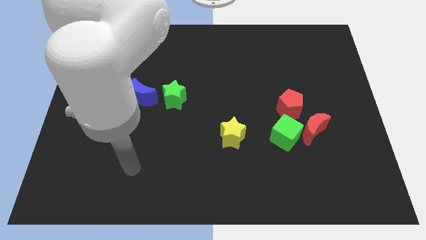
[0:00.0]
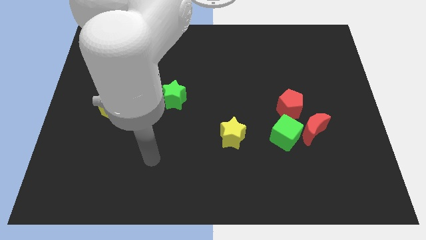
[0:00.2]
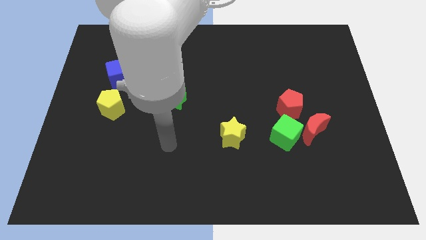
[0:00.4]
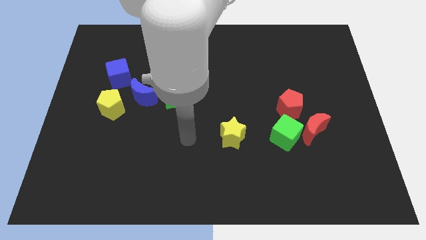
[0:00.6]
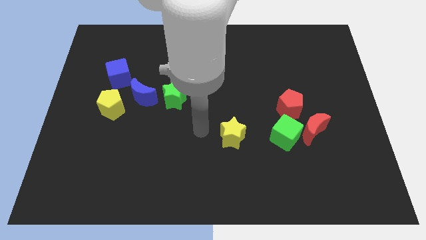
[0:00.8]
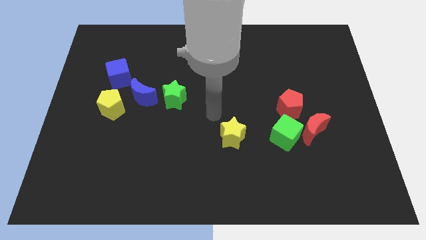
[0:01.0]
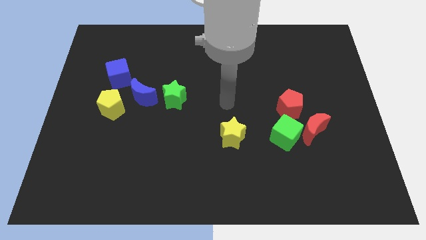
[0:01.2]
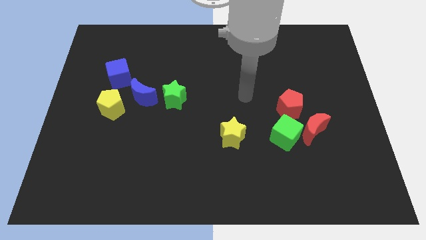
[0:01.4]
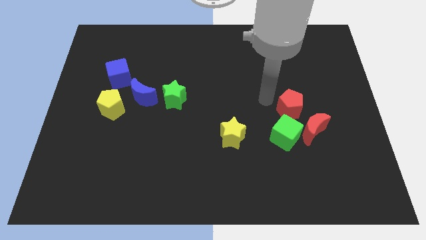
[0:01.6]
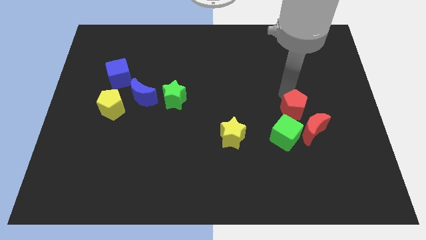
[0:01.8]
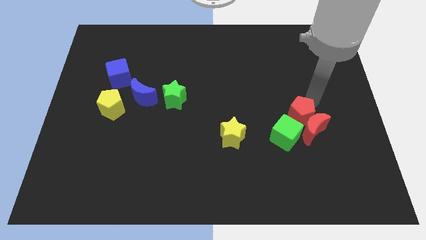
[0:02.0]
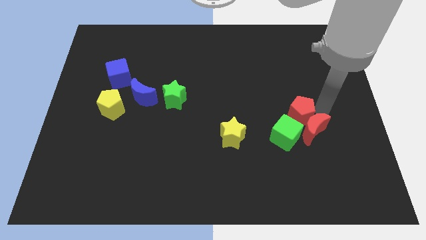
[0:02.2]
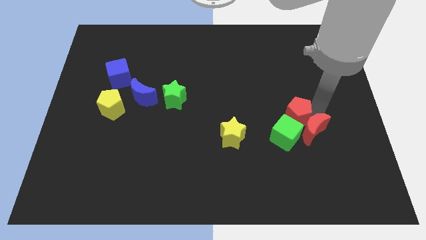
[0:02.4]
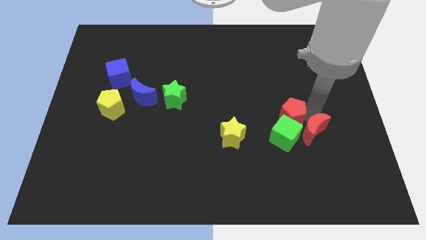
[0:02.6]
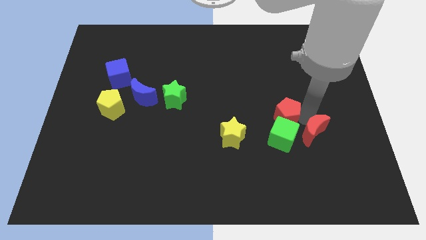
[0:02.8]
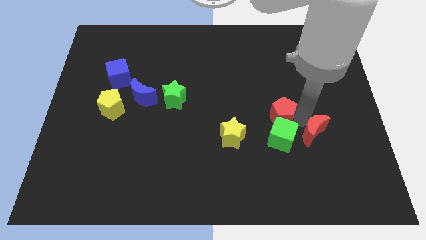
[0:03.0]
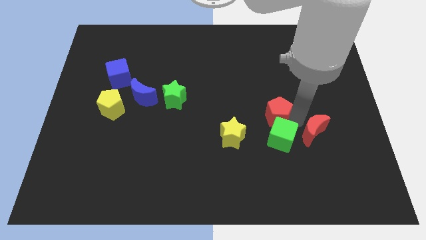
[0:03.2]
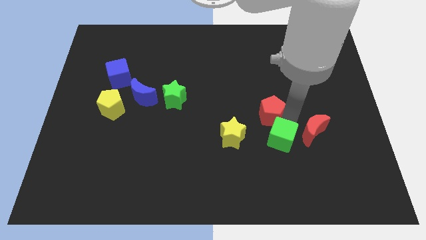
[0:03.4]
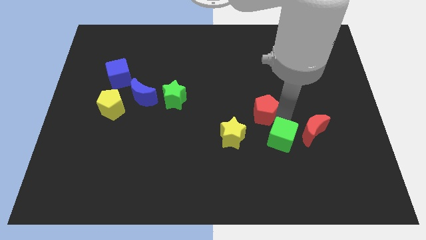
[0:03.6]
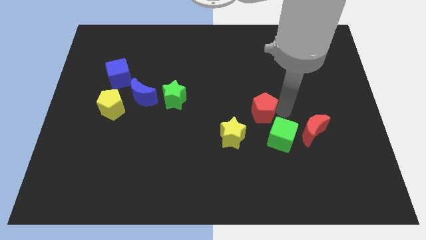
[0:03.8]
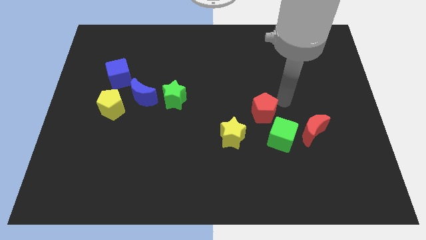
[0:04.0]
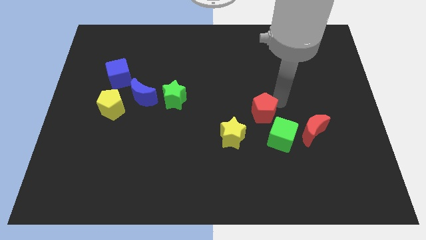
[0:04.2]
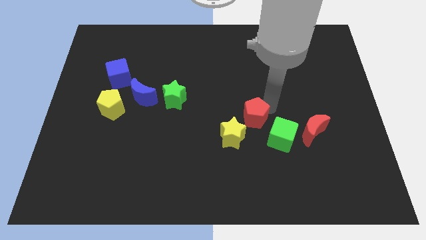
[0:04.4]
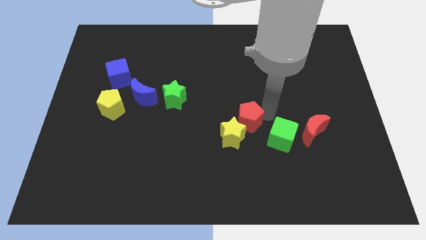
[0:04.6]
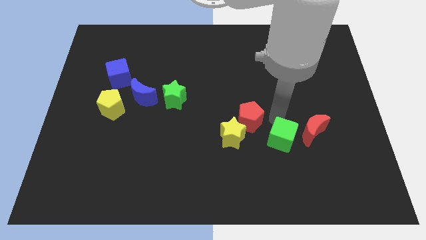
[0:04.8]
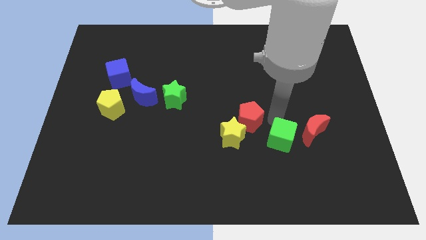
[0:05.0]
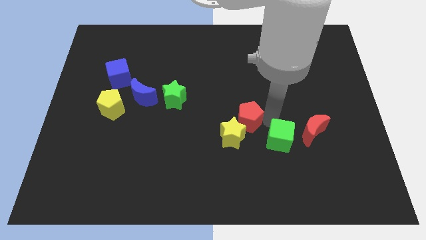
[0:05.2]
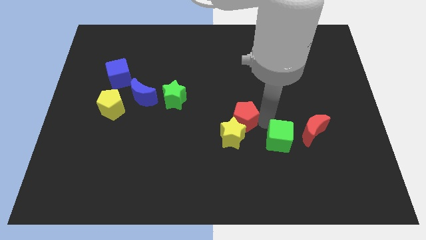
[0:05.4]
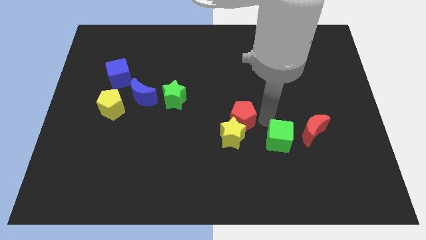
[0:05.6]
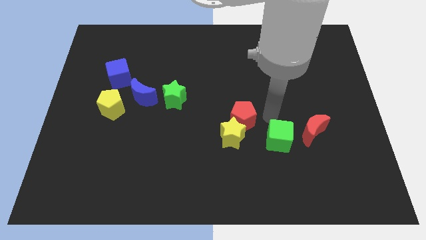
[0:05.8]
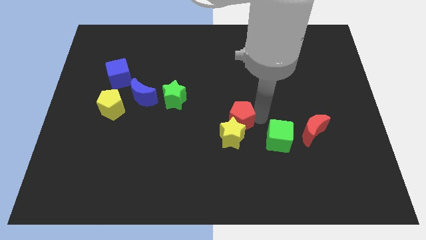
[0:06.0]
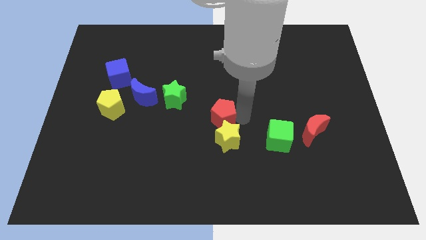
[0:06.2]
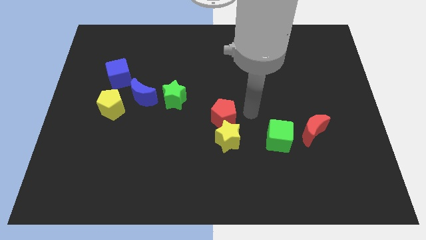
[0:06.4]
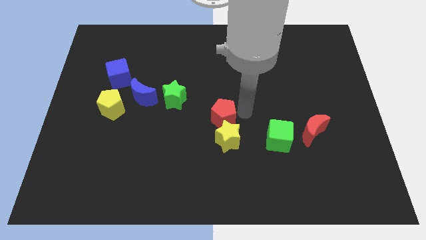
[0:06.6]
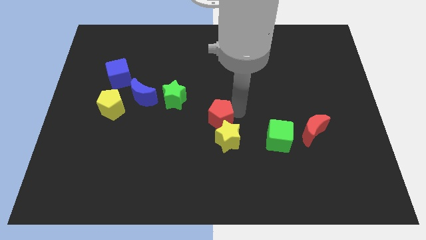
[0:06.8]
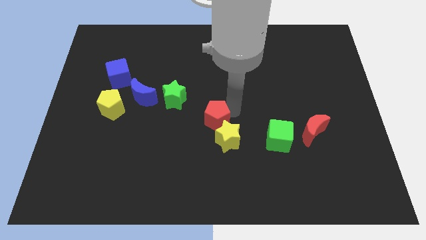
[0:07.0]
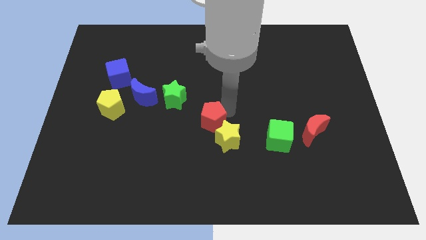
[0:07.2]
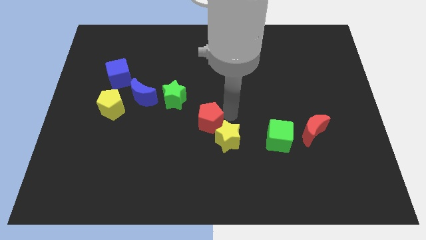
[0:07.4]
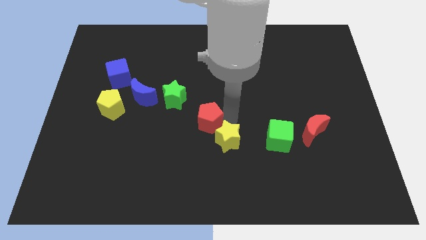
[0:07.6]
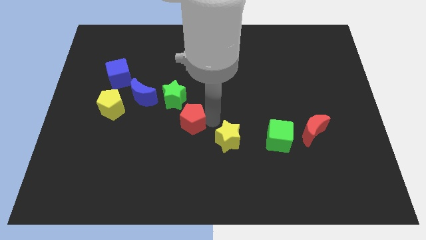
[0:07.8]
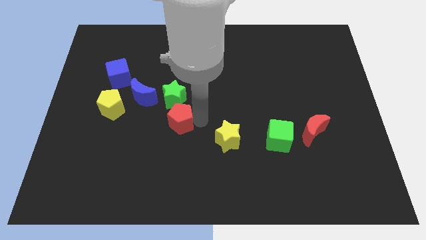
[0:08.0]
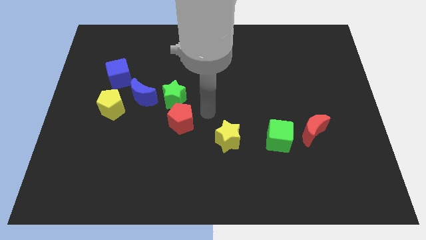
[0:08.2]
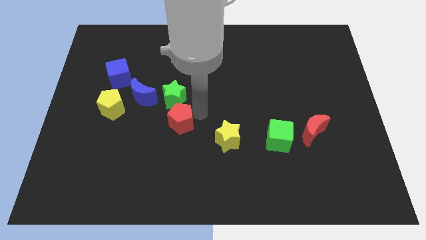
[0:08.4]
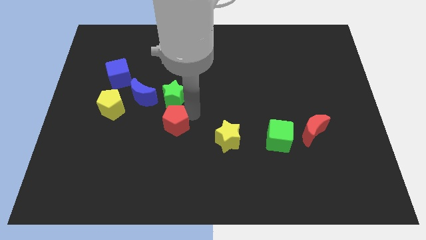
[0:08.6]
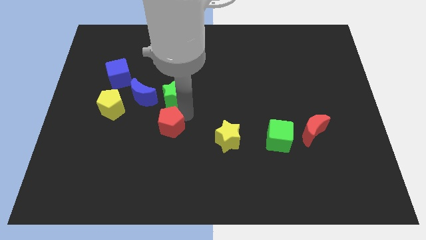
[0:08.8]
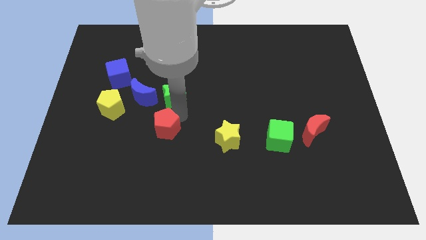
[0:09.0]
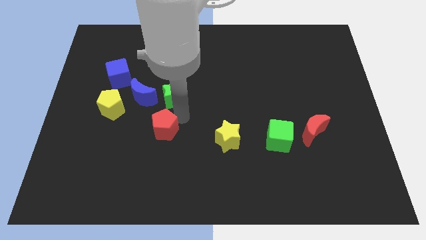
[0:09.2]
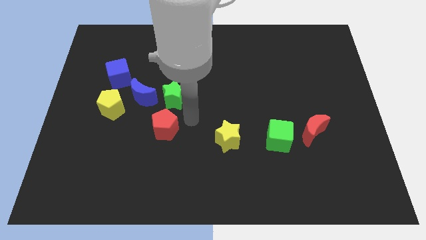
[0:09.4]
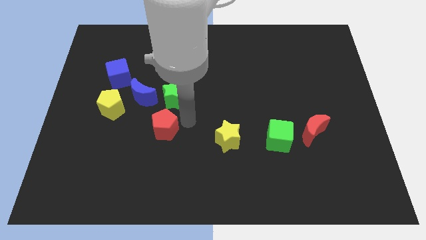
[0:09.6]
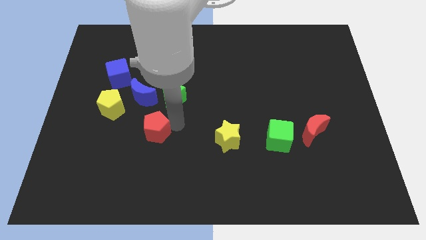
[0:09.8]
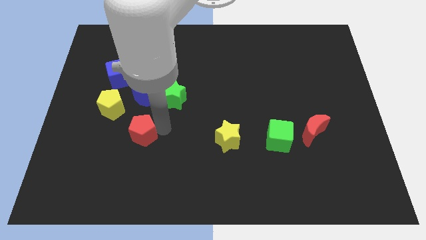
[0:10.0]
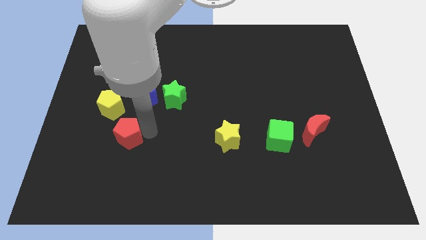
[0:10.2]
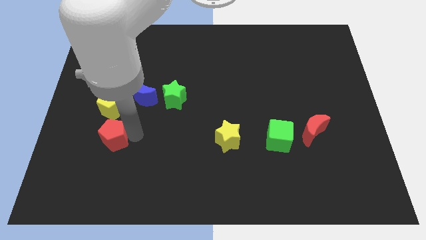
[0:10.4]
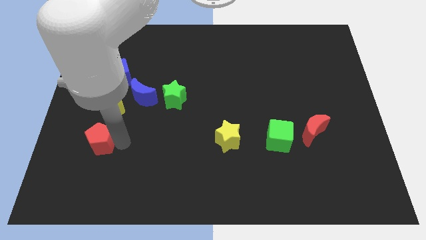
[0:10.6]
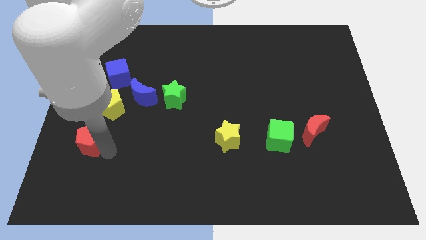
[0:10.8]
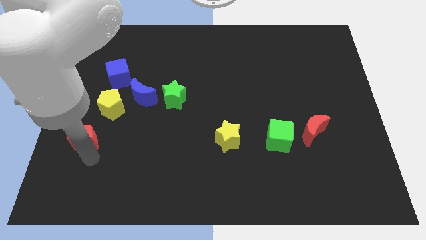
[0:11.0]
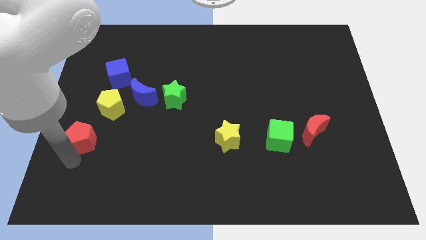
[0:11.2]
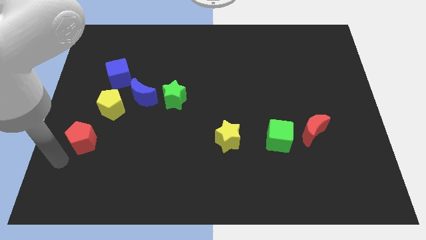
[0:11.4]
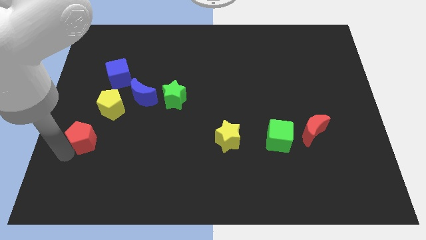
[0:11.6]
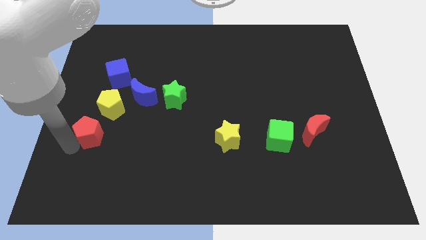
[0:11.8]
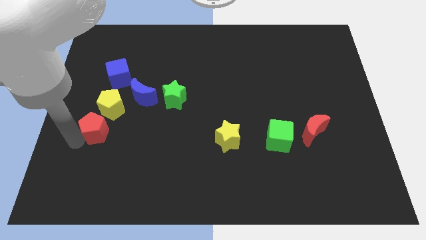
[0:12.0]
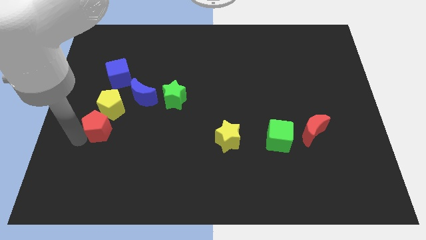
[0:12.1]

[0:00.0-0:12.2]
put the red pentagon diagonally down and to the left of the blue moon
